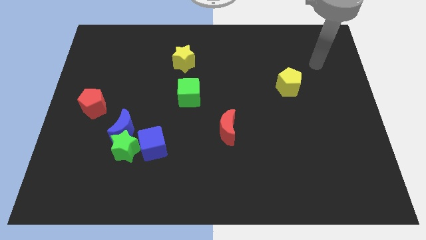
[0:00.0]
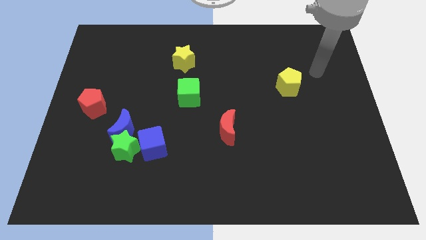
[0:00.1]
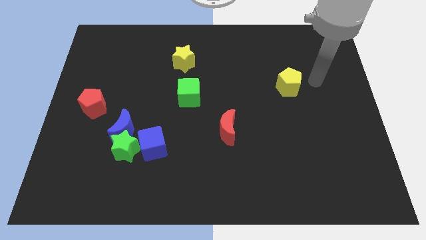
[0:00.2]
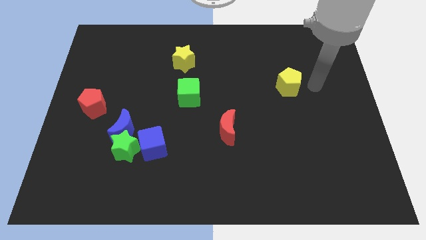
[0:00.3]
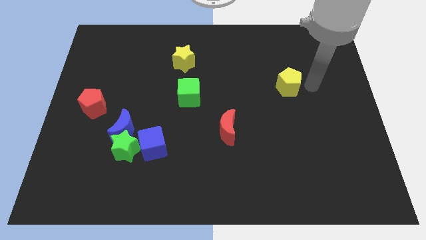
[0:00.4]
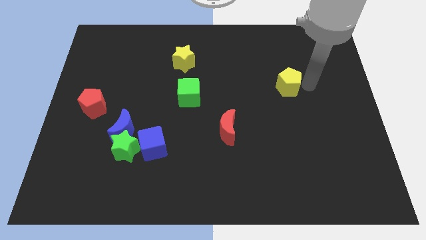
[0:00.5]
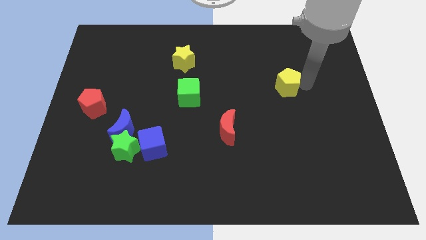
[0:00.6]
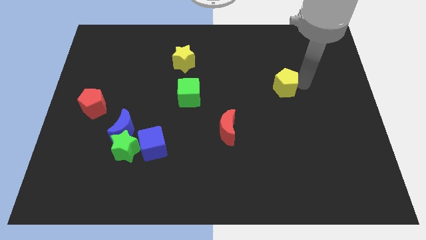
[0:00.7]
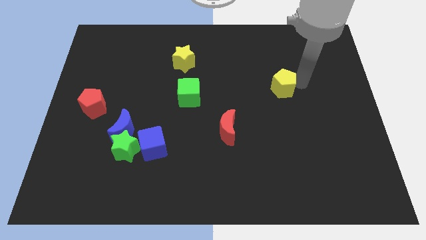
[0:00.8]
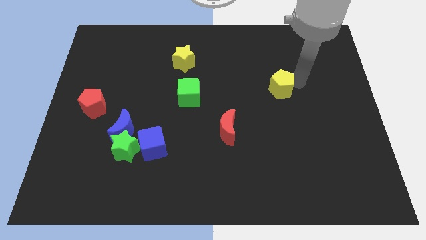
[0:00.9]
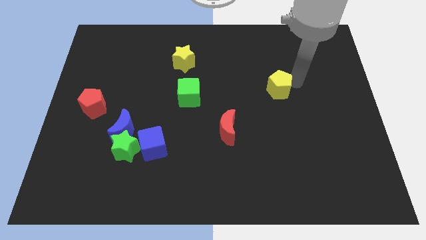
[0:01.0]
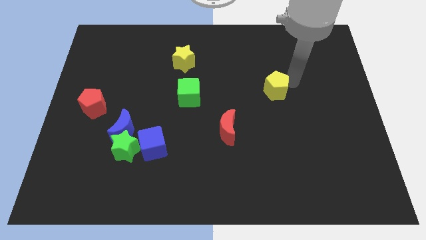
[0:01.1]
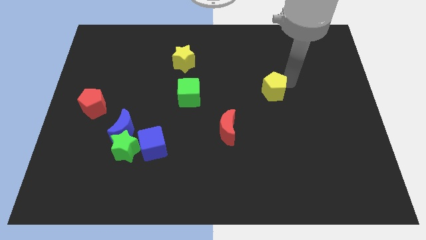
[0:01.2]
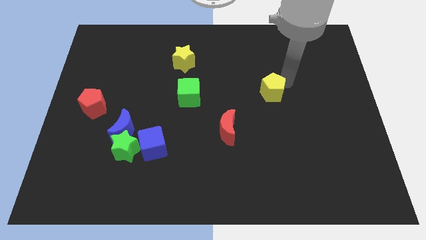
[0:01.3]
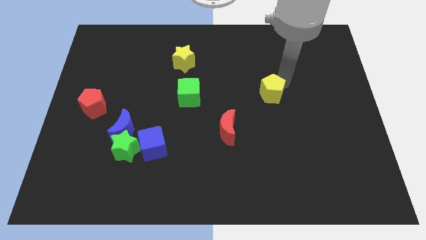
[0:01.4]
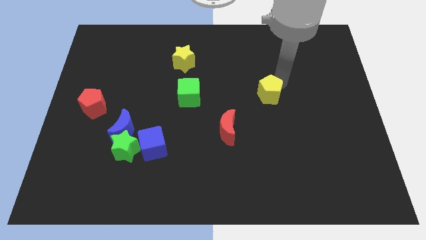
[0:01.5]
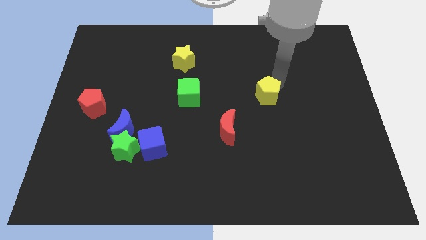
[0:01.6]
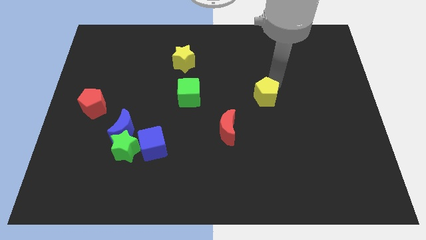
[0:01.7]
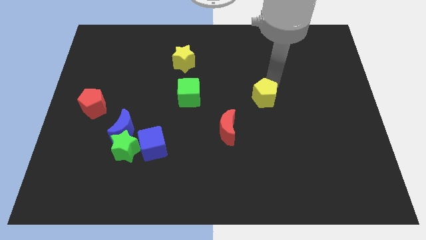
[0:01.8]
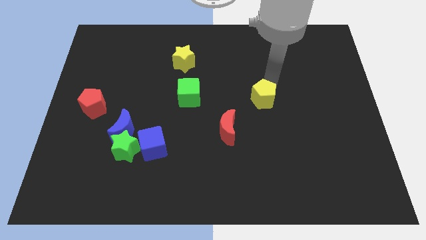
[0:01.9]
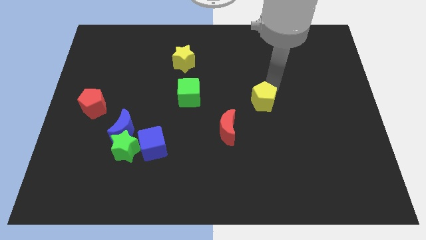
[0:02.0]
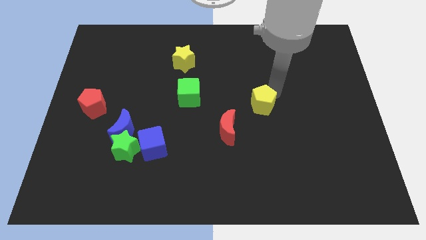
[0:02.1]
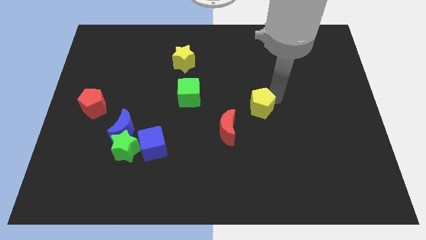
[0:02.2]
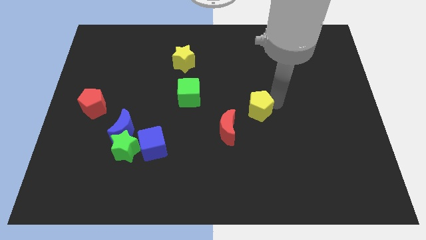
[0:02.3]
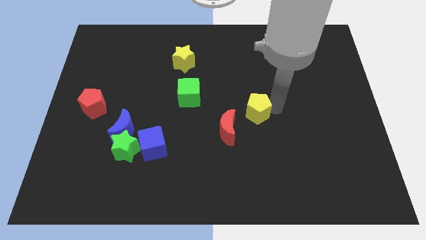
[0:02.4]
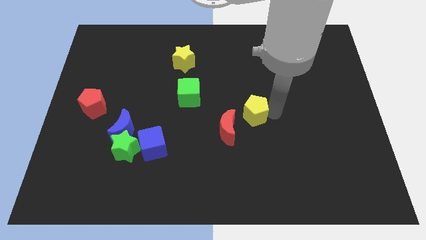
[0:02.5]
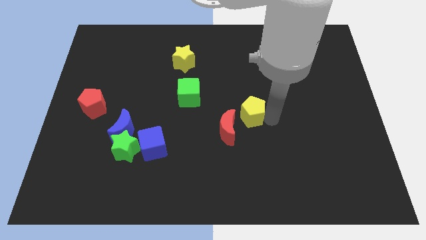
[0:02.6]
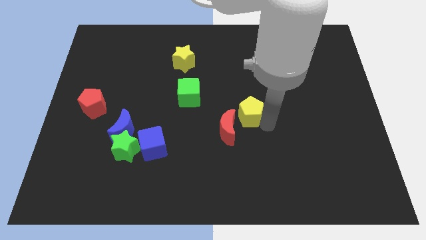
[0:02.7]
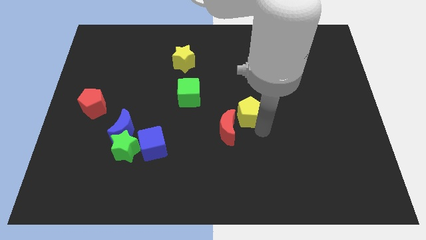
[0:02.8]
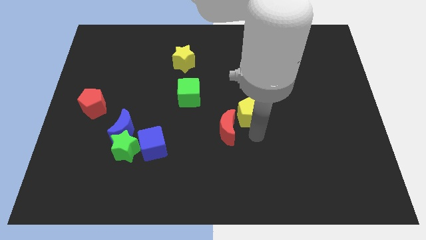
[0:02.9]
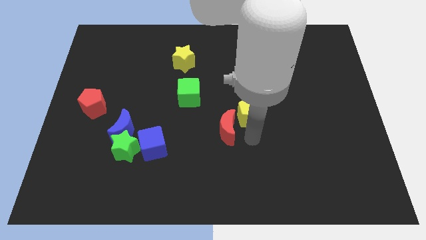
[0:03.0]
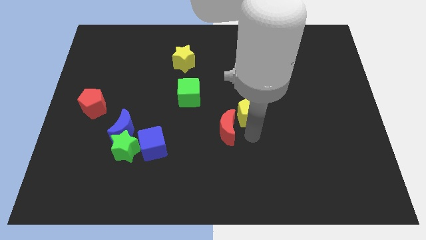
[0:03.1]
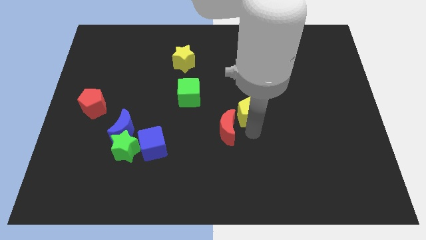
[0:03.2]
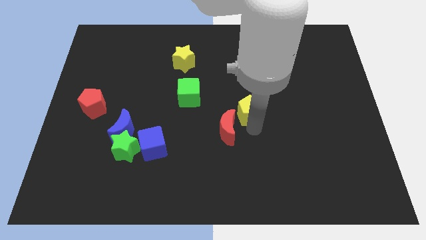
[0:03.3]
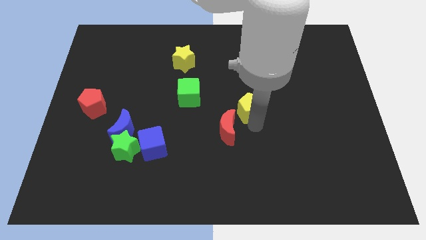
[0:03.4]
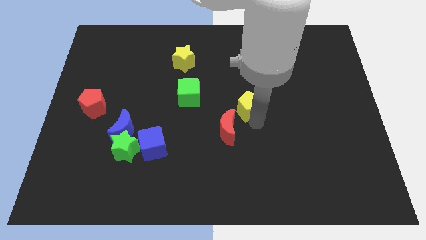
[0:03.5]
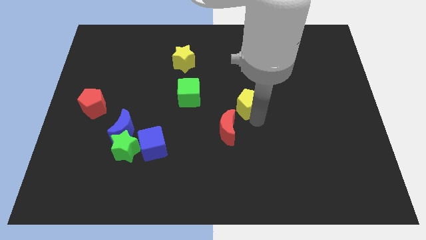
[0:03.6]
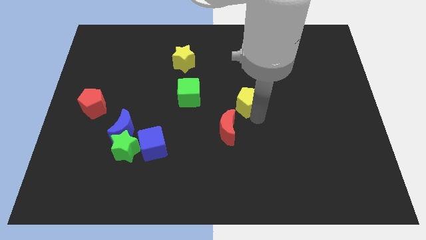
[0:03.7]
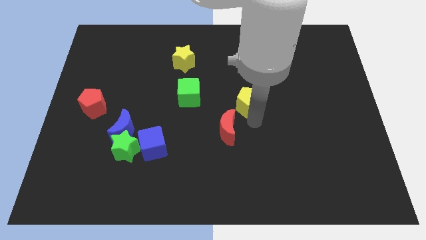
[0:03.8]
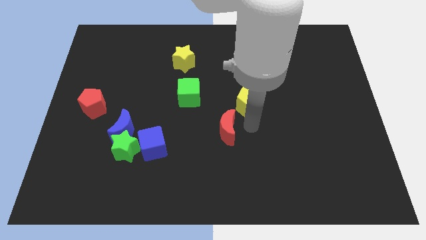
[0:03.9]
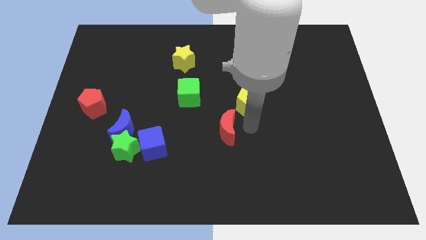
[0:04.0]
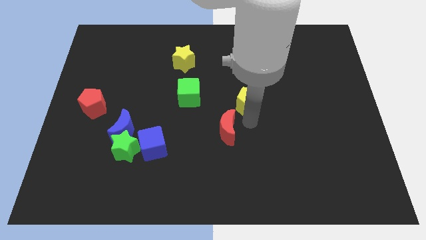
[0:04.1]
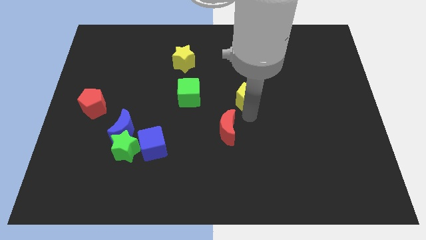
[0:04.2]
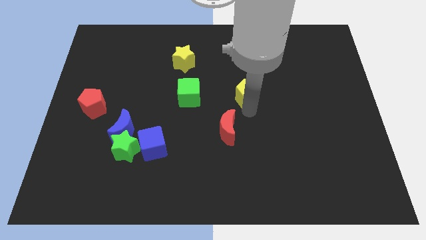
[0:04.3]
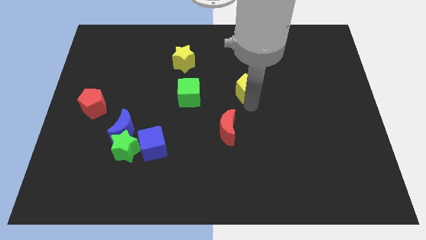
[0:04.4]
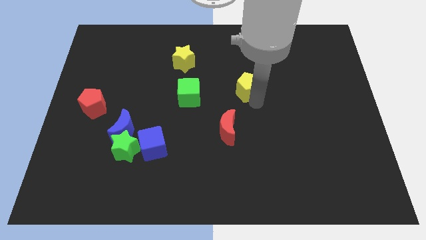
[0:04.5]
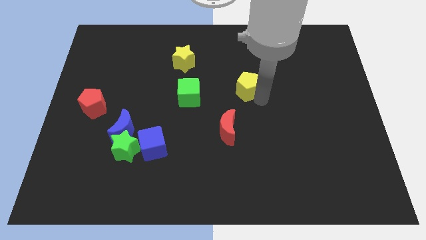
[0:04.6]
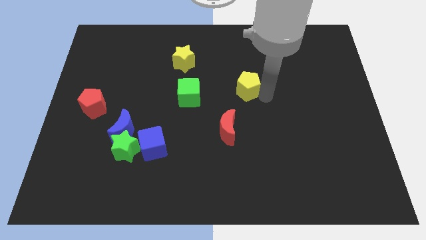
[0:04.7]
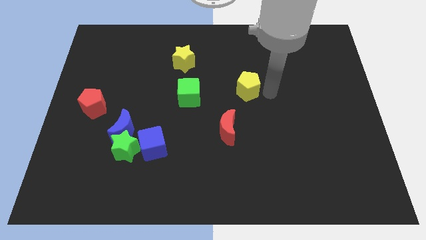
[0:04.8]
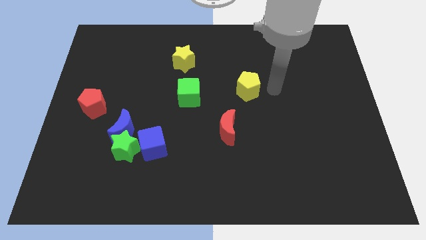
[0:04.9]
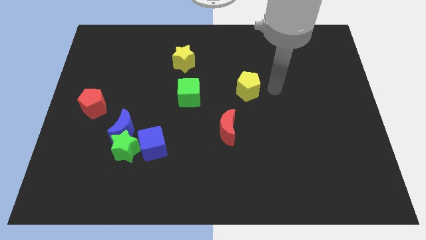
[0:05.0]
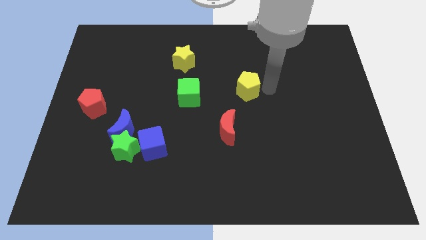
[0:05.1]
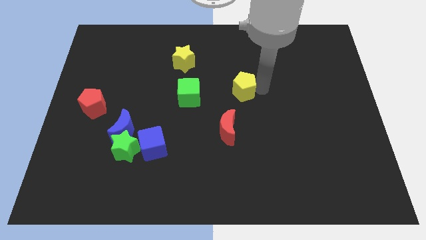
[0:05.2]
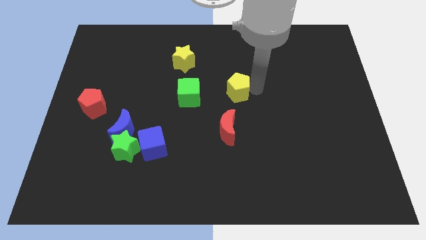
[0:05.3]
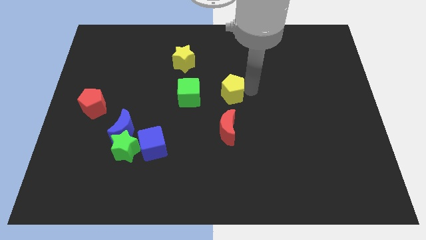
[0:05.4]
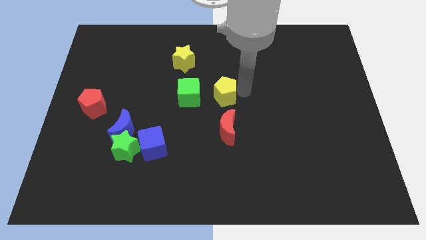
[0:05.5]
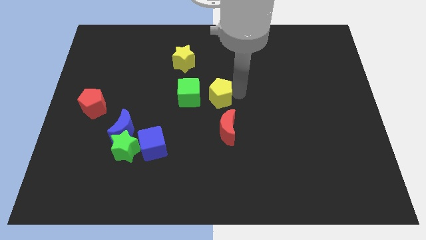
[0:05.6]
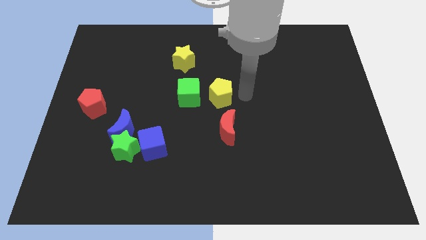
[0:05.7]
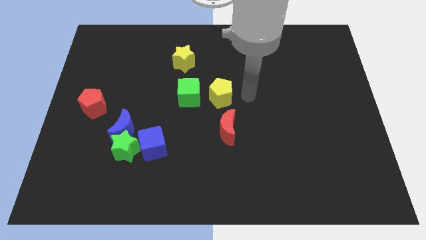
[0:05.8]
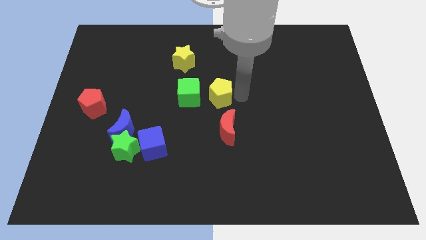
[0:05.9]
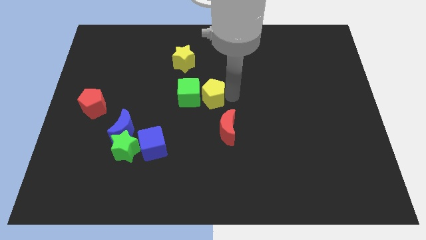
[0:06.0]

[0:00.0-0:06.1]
push the yellow pentagon to the green cube

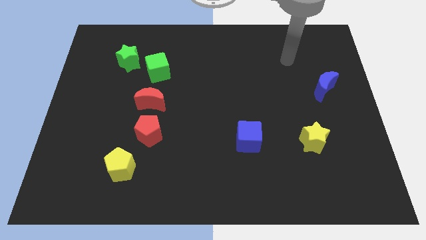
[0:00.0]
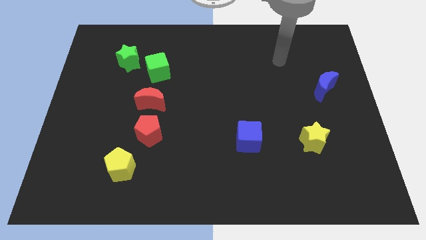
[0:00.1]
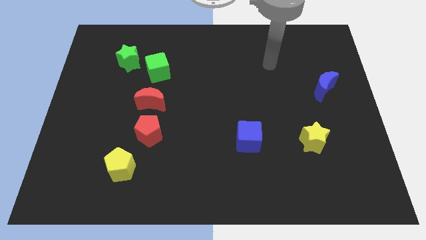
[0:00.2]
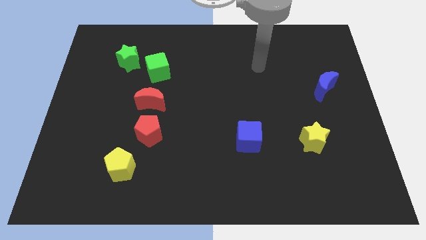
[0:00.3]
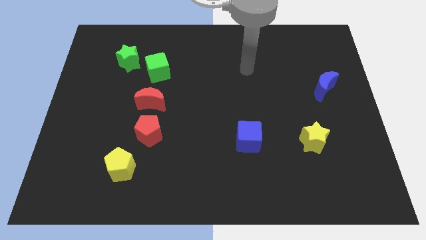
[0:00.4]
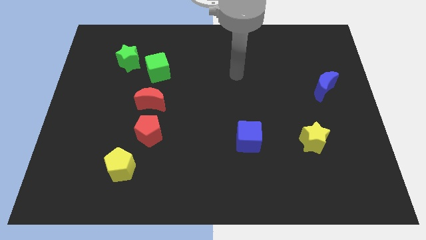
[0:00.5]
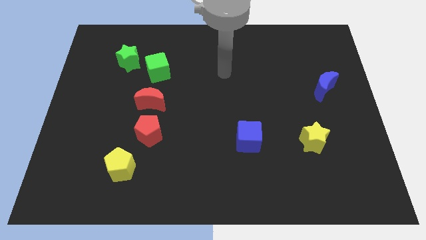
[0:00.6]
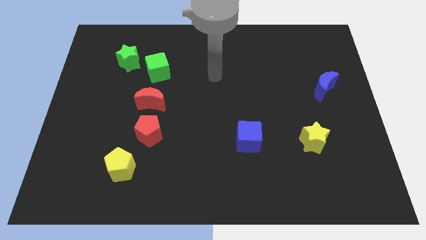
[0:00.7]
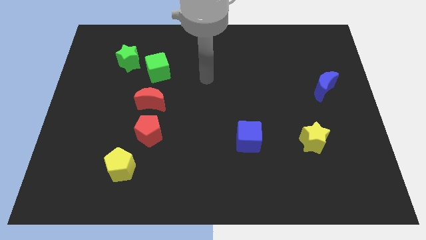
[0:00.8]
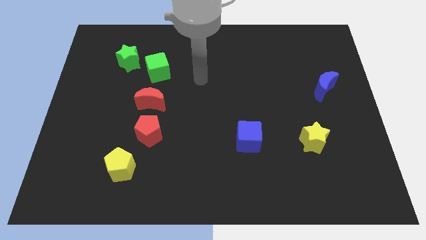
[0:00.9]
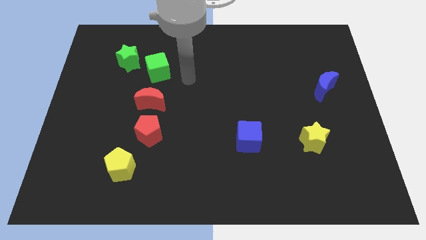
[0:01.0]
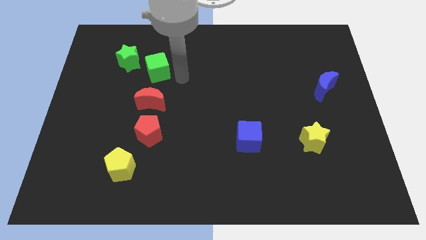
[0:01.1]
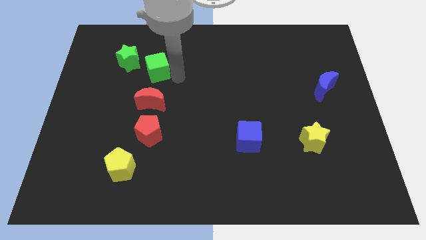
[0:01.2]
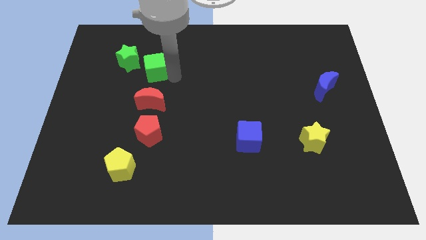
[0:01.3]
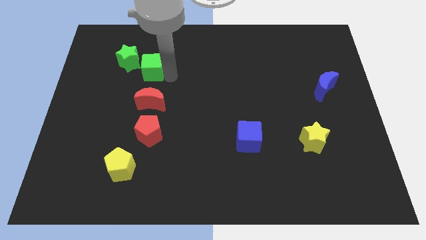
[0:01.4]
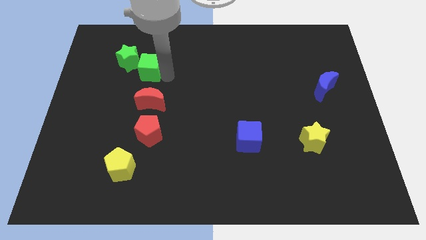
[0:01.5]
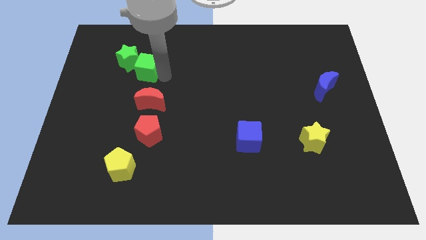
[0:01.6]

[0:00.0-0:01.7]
put the green cube towards the green star
